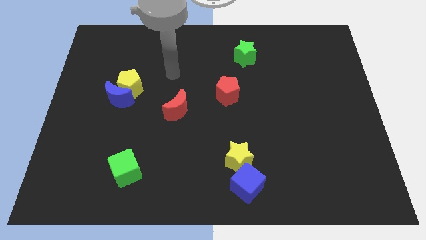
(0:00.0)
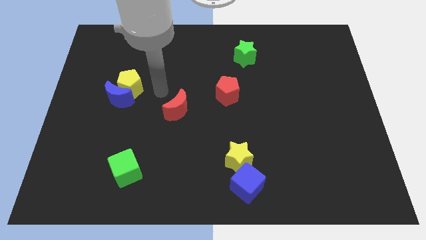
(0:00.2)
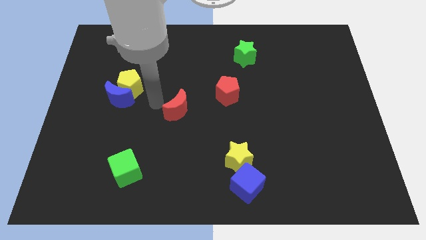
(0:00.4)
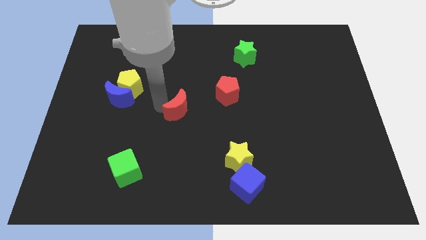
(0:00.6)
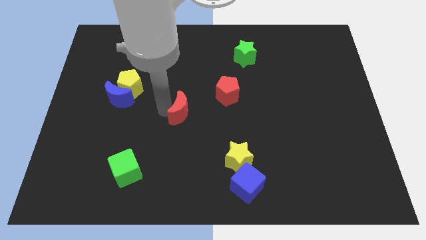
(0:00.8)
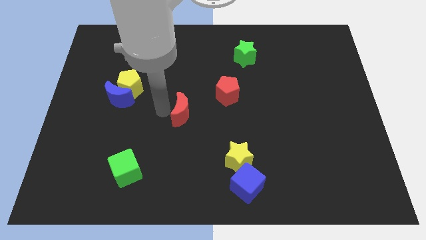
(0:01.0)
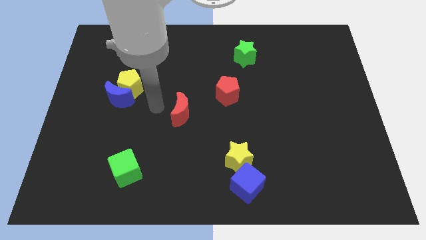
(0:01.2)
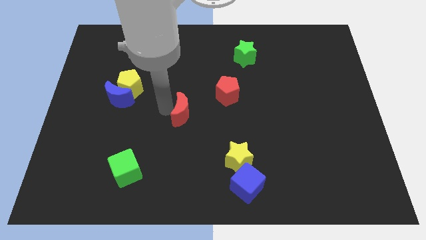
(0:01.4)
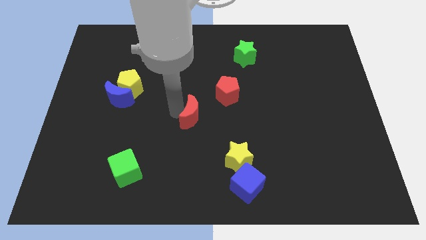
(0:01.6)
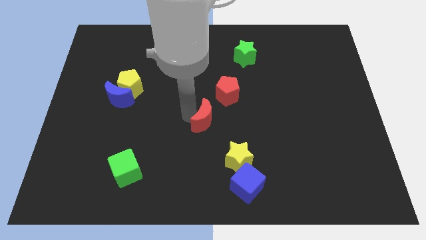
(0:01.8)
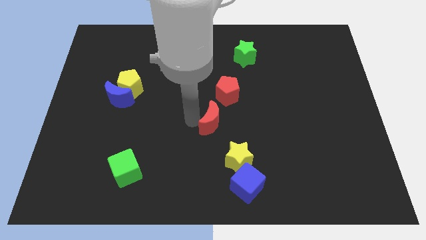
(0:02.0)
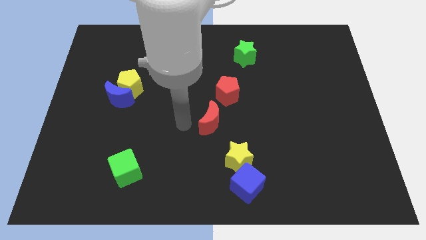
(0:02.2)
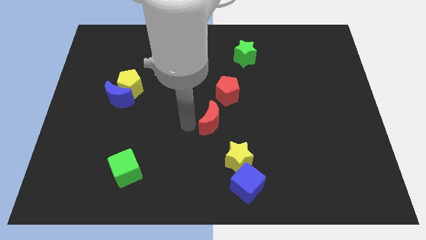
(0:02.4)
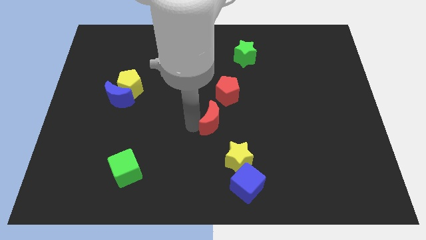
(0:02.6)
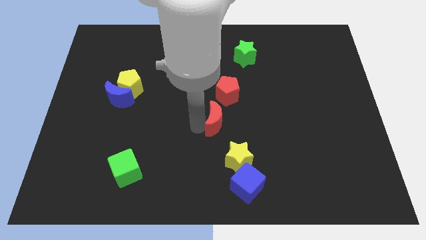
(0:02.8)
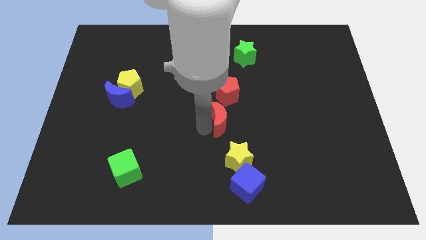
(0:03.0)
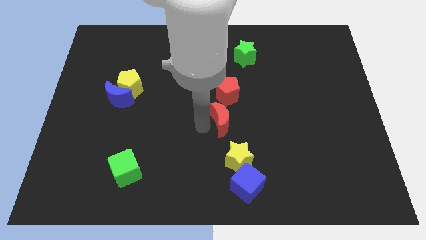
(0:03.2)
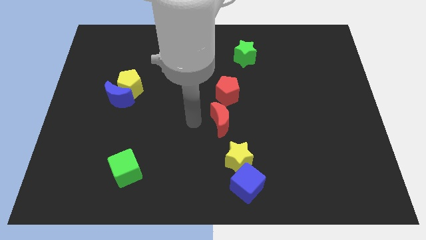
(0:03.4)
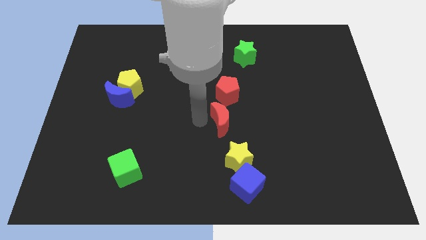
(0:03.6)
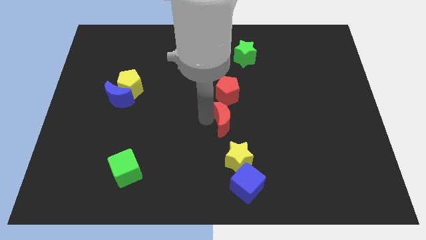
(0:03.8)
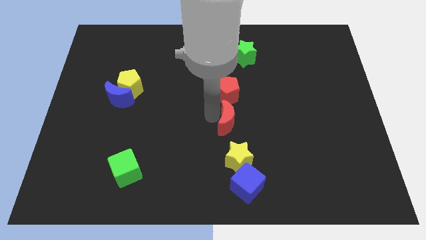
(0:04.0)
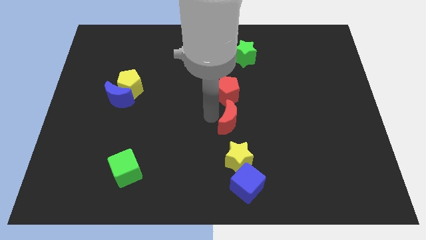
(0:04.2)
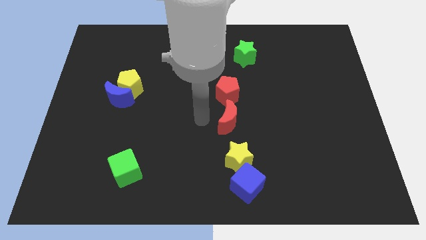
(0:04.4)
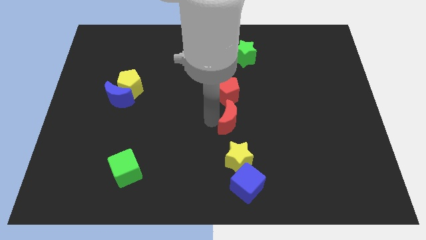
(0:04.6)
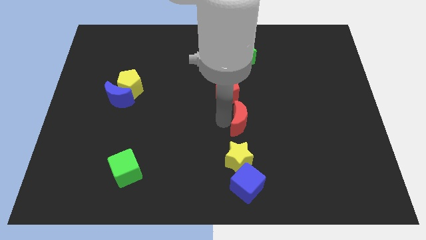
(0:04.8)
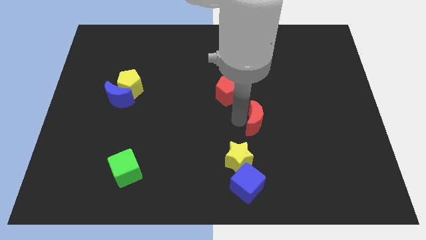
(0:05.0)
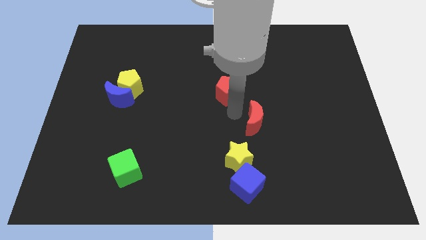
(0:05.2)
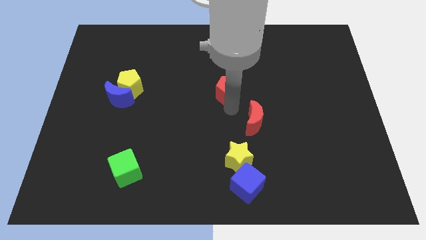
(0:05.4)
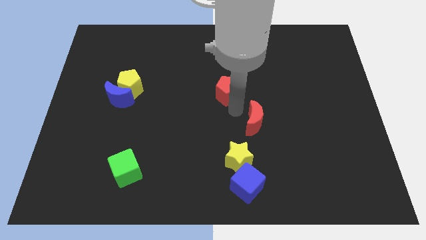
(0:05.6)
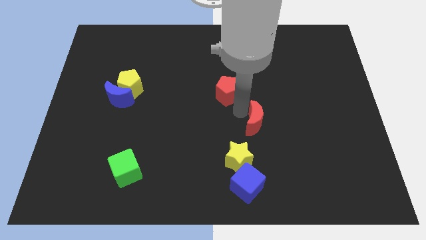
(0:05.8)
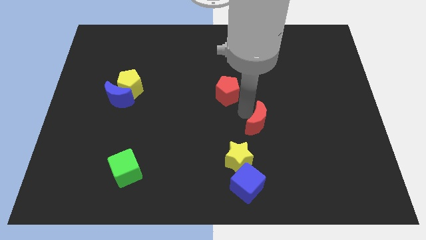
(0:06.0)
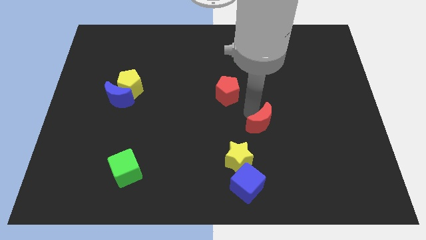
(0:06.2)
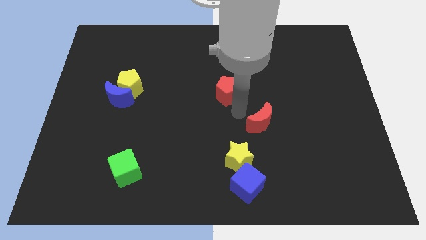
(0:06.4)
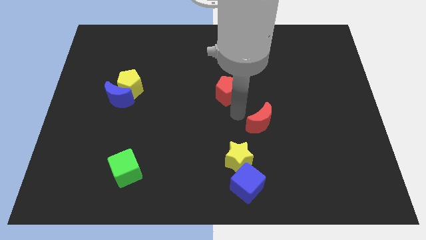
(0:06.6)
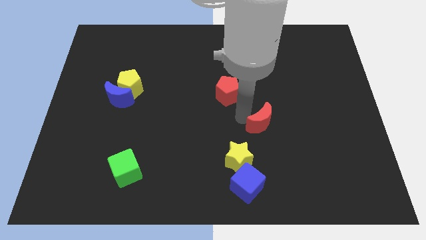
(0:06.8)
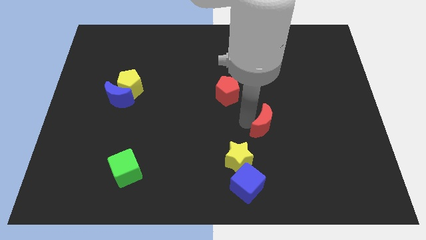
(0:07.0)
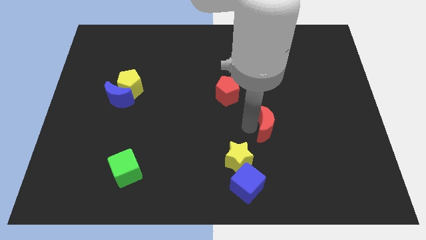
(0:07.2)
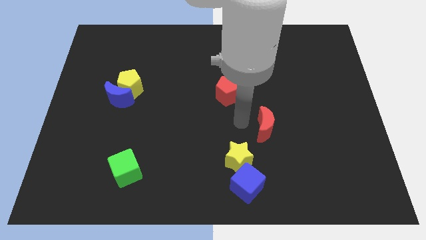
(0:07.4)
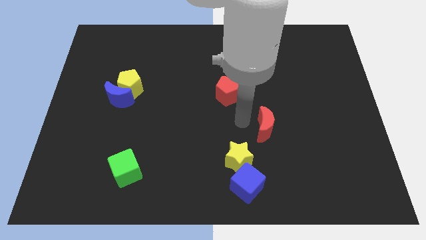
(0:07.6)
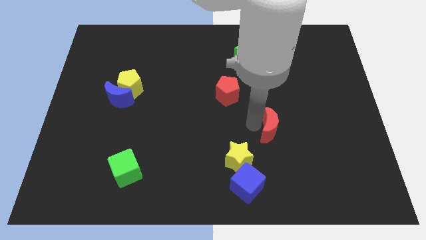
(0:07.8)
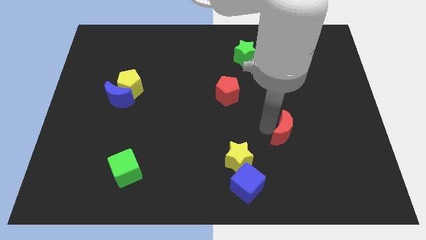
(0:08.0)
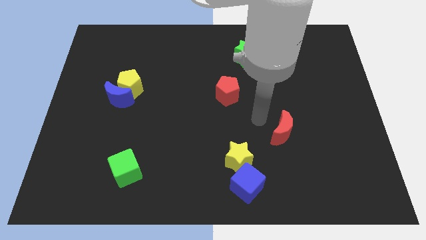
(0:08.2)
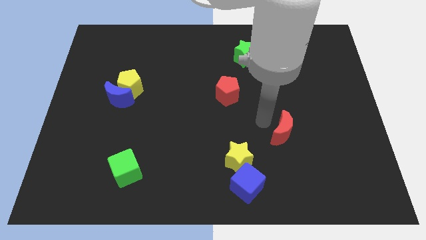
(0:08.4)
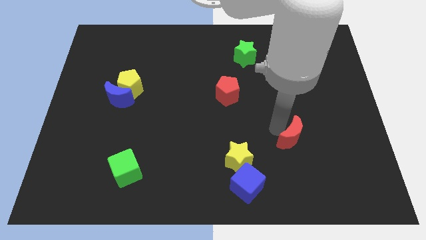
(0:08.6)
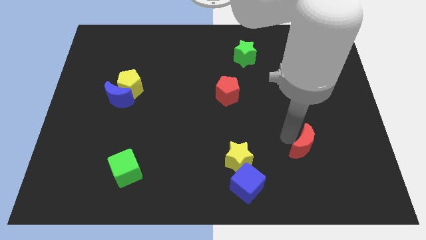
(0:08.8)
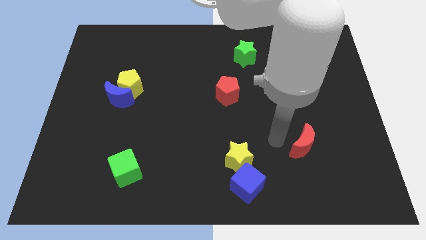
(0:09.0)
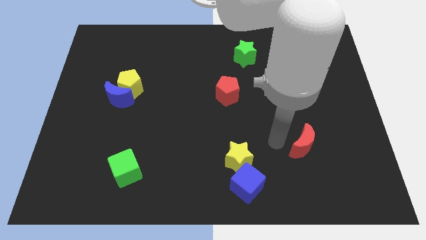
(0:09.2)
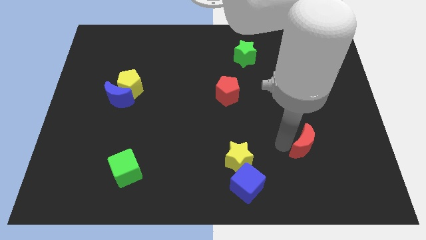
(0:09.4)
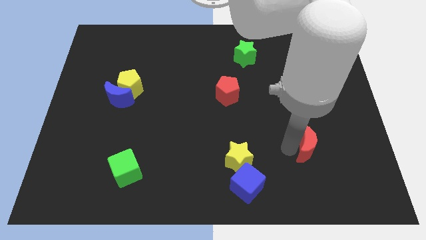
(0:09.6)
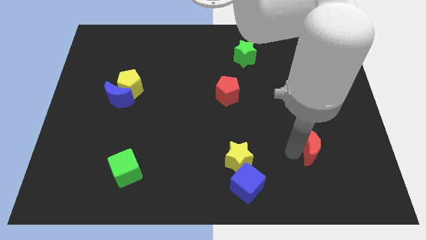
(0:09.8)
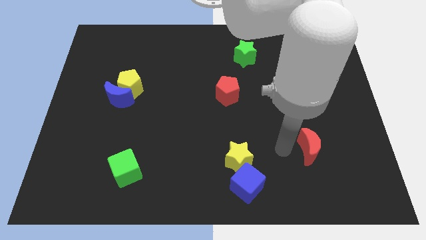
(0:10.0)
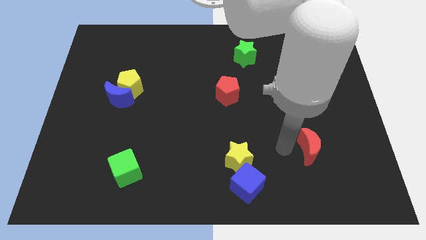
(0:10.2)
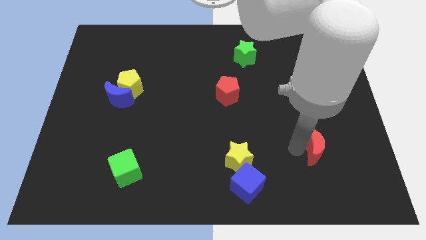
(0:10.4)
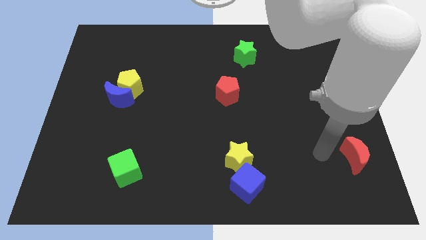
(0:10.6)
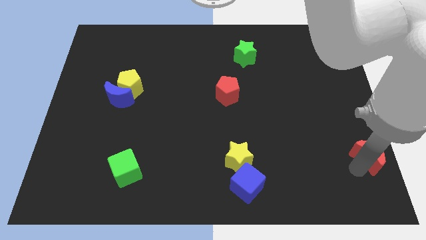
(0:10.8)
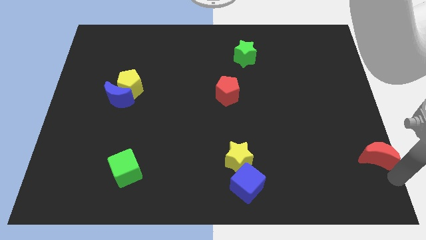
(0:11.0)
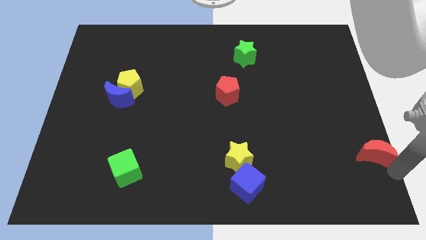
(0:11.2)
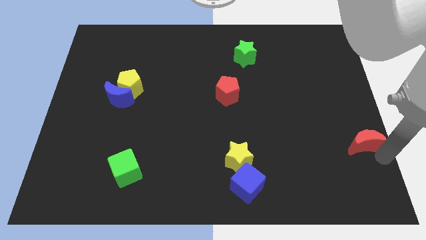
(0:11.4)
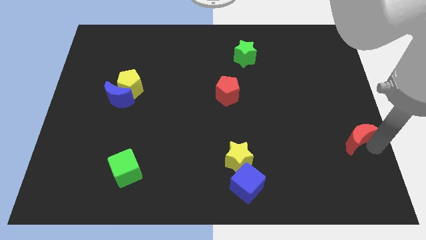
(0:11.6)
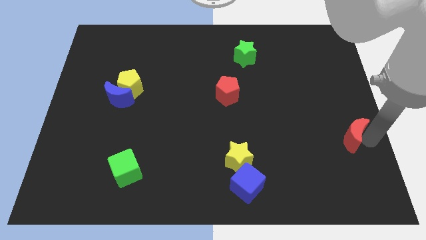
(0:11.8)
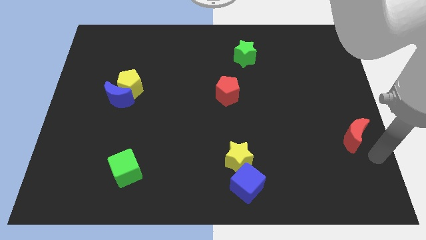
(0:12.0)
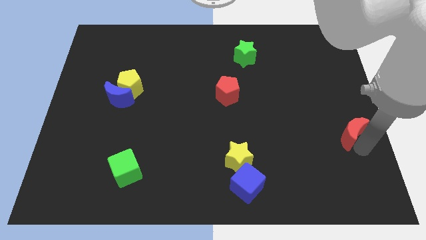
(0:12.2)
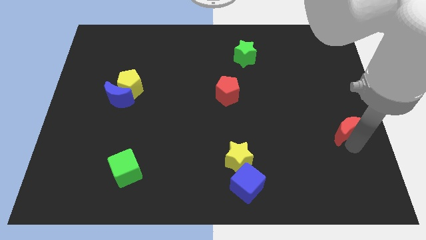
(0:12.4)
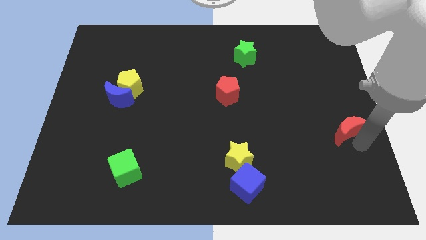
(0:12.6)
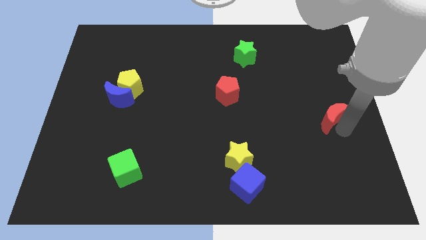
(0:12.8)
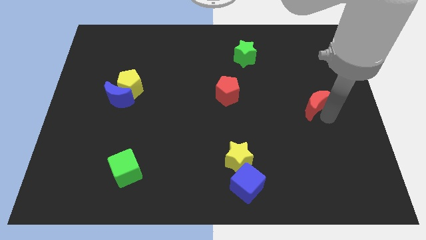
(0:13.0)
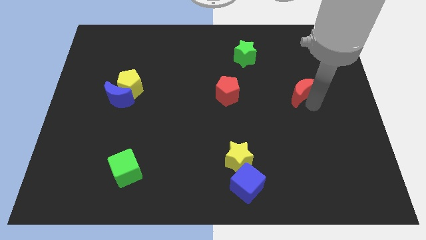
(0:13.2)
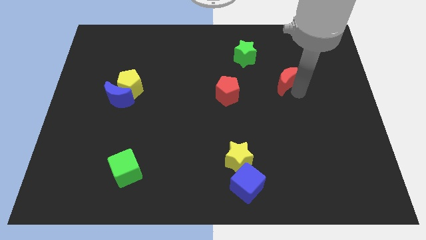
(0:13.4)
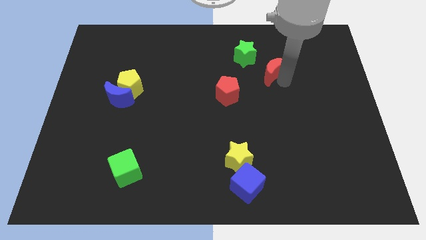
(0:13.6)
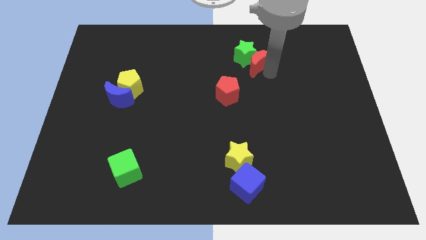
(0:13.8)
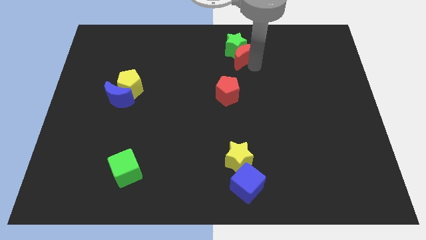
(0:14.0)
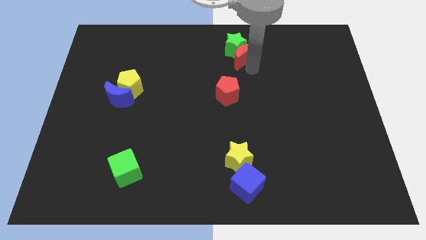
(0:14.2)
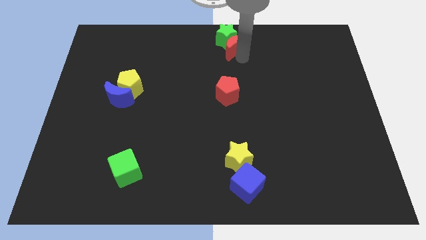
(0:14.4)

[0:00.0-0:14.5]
slide the red moon to the top side
